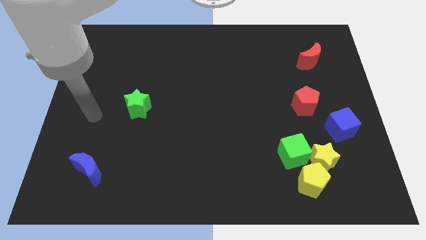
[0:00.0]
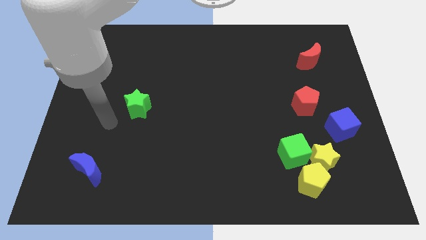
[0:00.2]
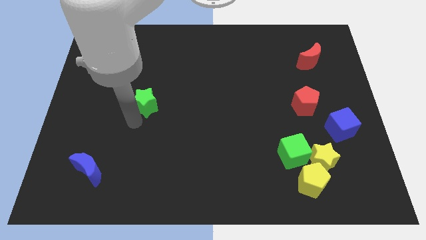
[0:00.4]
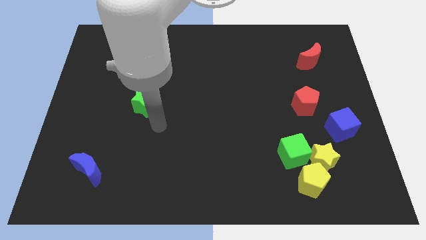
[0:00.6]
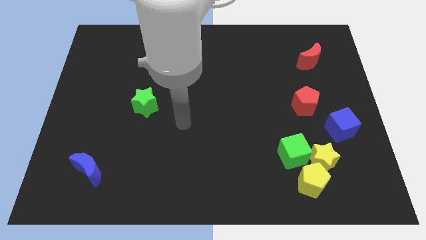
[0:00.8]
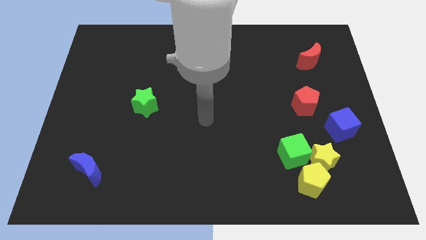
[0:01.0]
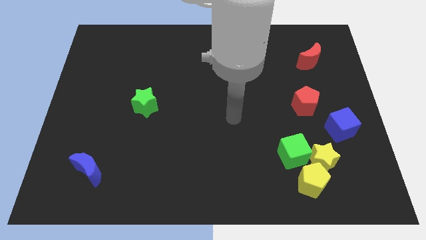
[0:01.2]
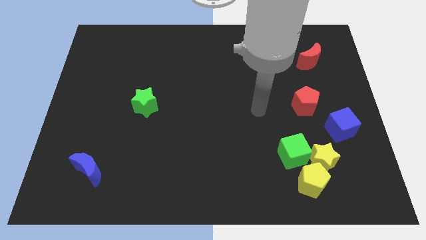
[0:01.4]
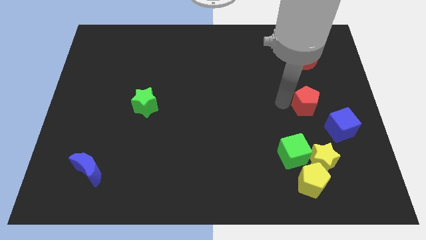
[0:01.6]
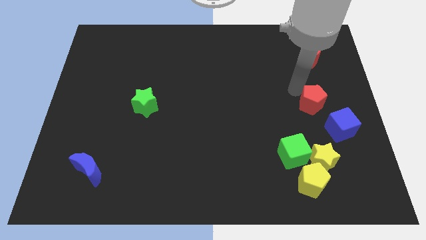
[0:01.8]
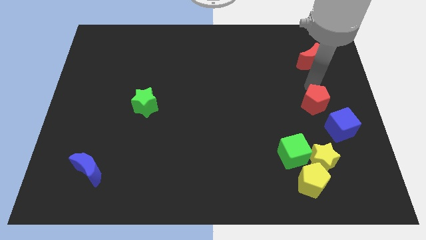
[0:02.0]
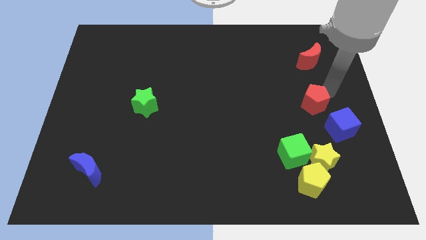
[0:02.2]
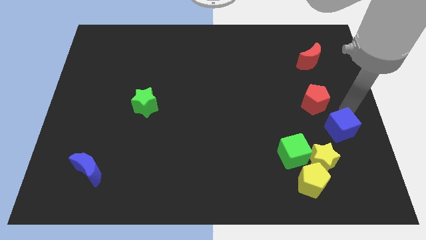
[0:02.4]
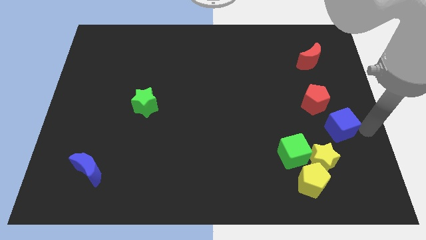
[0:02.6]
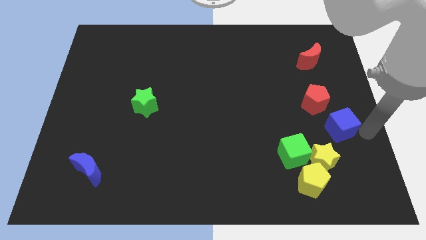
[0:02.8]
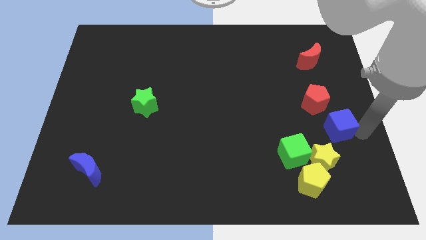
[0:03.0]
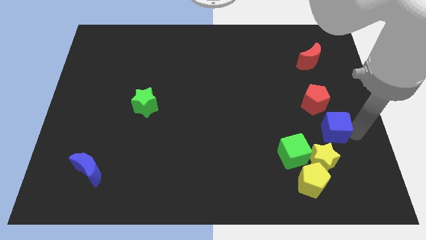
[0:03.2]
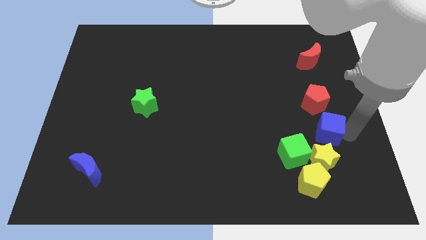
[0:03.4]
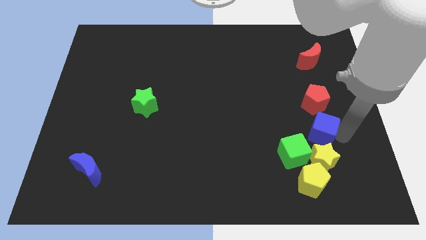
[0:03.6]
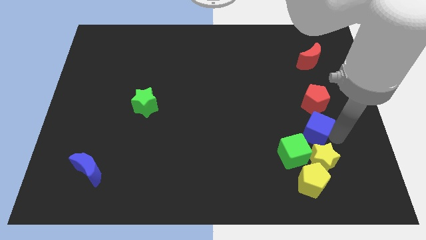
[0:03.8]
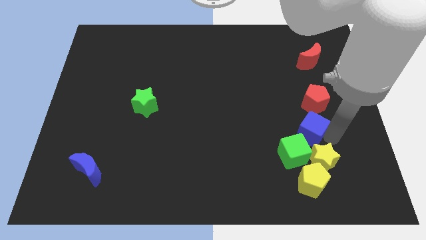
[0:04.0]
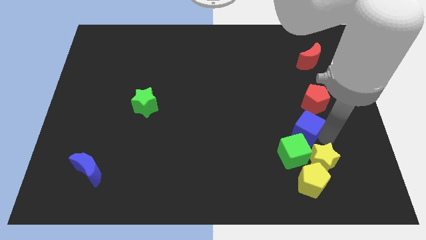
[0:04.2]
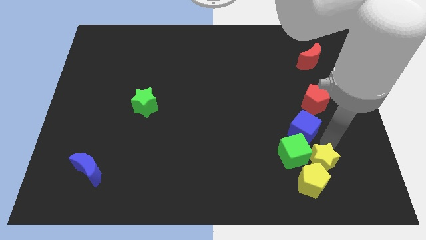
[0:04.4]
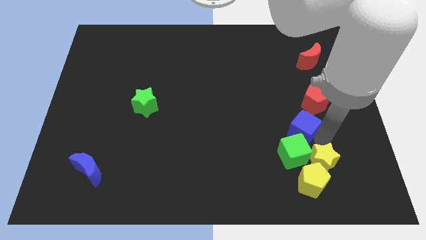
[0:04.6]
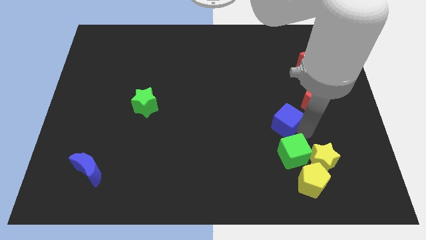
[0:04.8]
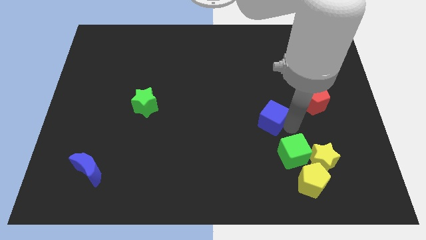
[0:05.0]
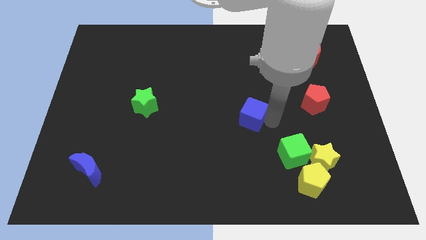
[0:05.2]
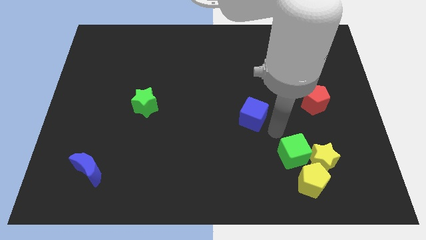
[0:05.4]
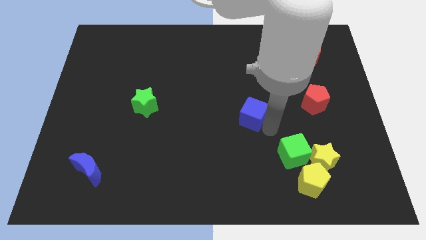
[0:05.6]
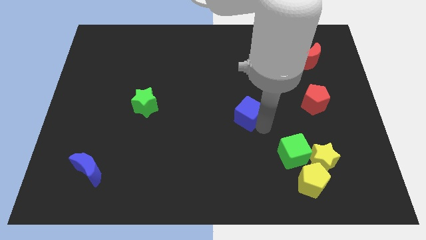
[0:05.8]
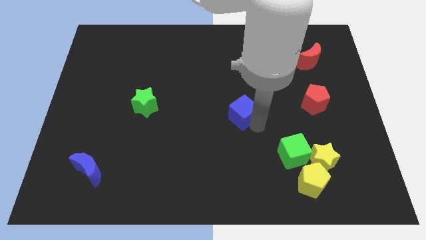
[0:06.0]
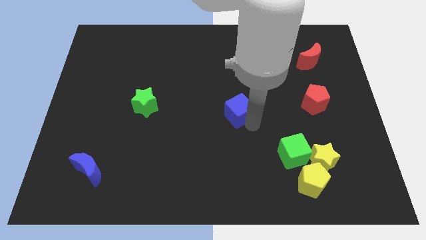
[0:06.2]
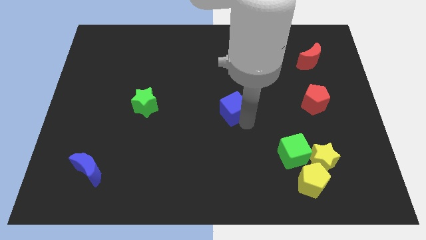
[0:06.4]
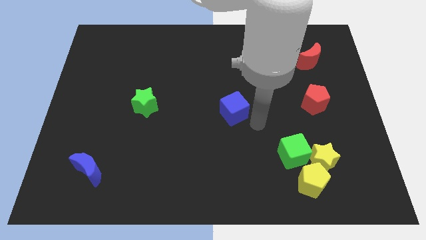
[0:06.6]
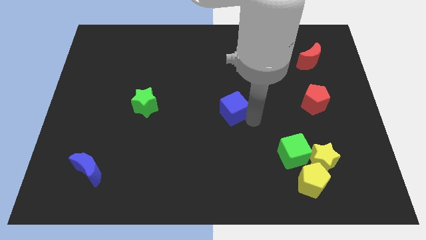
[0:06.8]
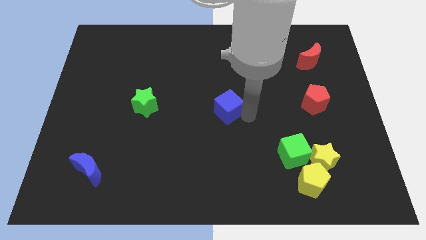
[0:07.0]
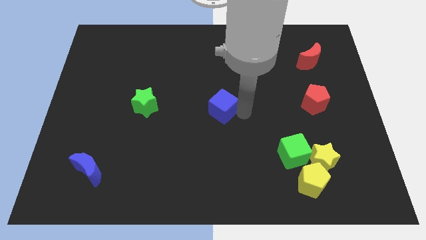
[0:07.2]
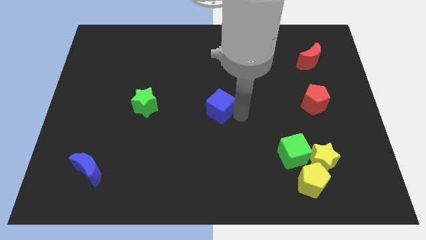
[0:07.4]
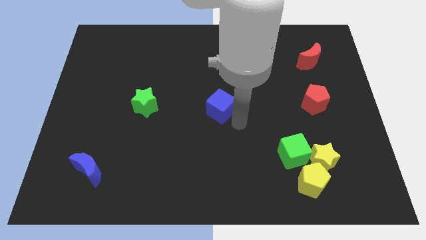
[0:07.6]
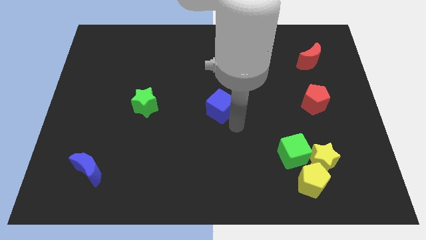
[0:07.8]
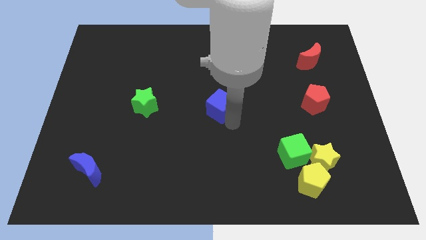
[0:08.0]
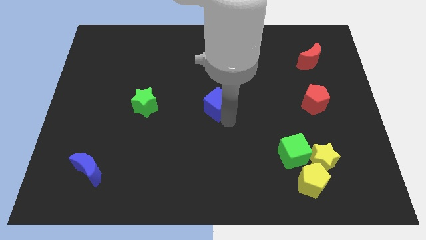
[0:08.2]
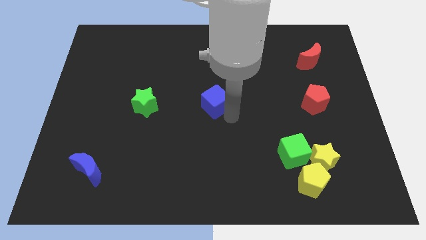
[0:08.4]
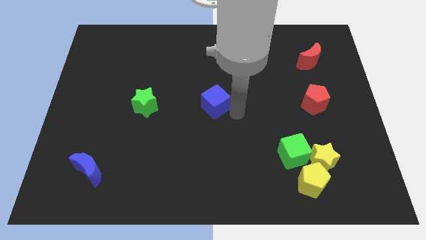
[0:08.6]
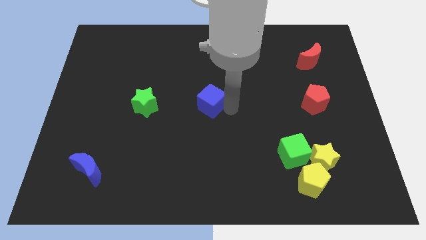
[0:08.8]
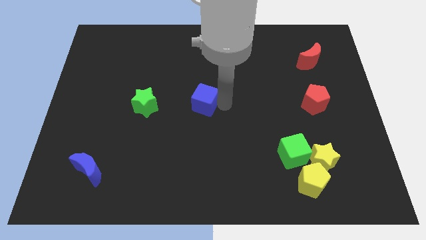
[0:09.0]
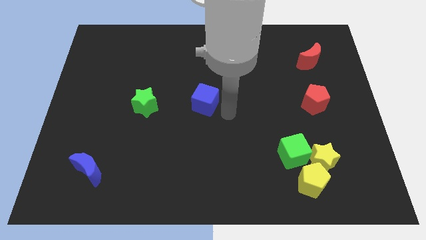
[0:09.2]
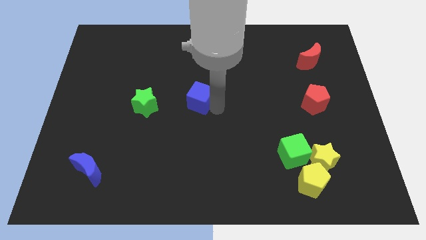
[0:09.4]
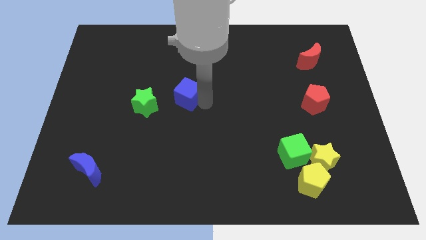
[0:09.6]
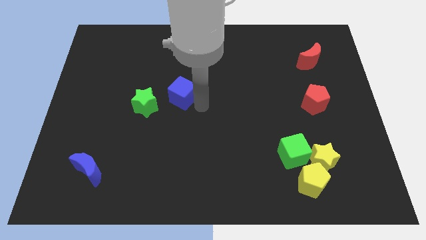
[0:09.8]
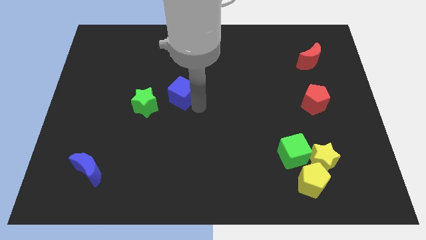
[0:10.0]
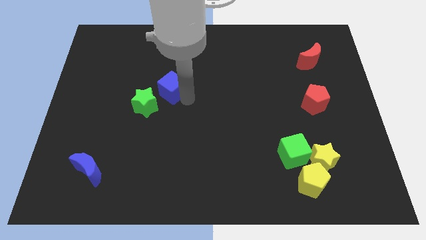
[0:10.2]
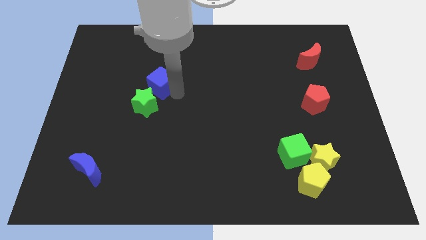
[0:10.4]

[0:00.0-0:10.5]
put the blue cube to the top of the green star

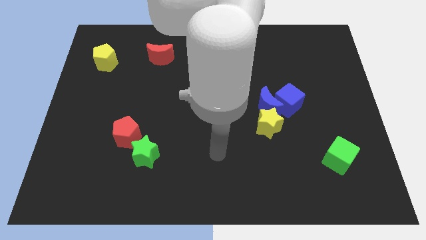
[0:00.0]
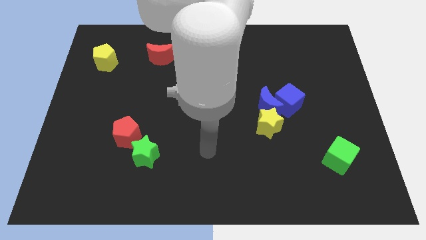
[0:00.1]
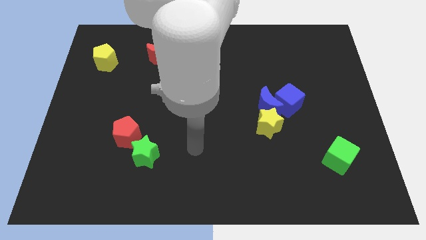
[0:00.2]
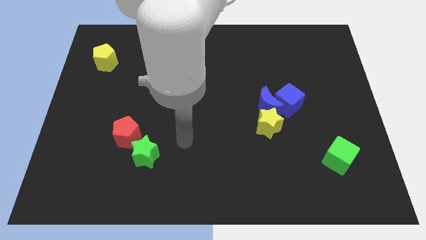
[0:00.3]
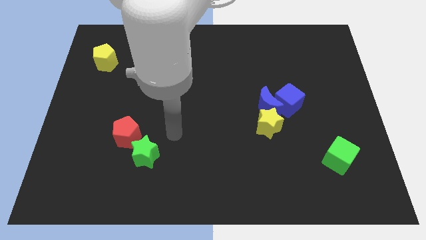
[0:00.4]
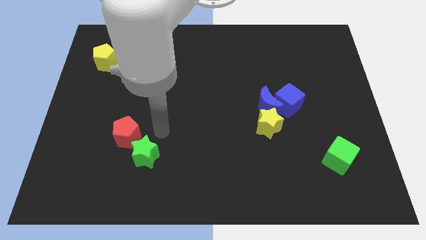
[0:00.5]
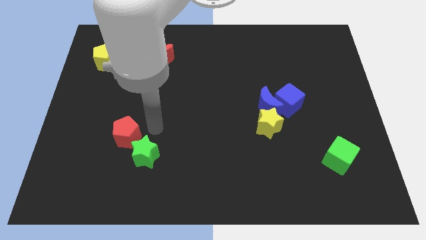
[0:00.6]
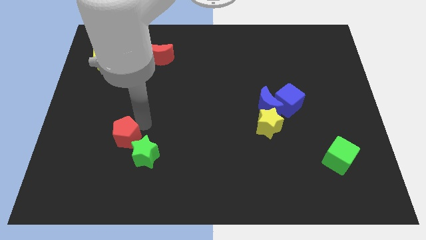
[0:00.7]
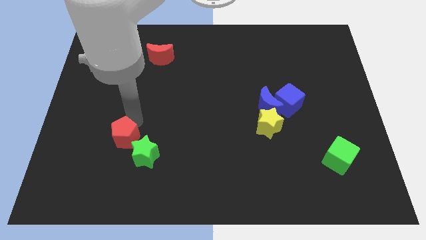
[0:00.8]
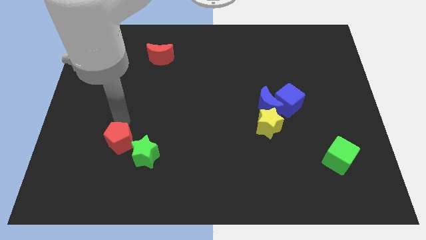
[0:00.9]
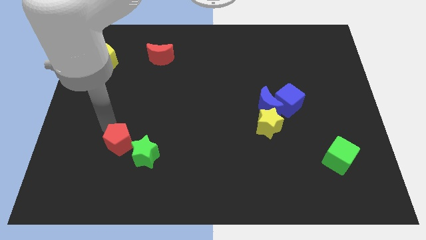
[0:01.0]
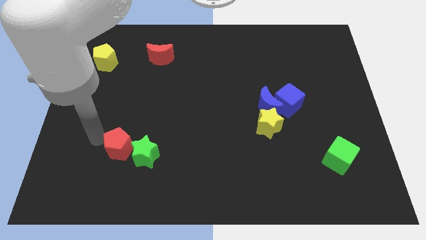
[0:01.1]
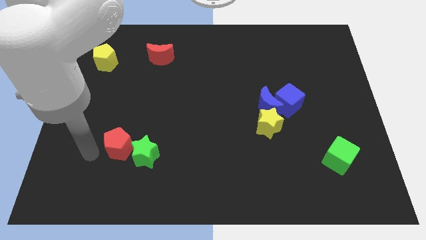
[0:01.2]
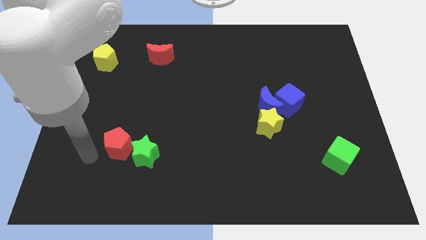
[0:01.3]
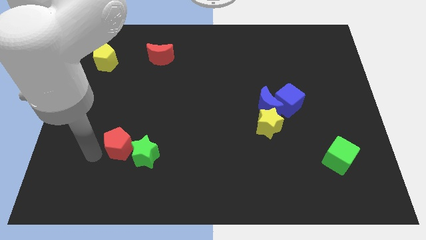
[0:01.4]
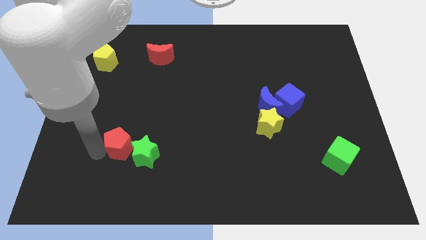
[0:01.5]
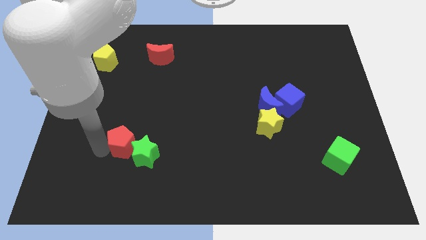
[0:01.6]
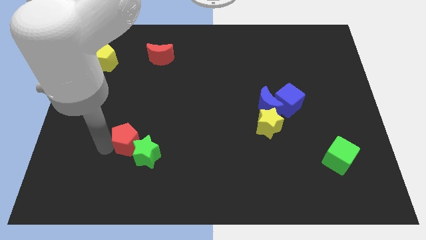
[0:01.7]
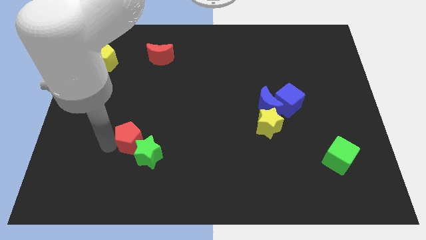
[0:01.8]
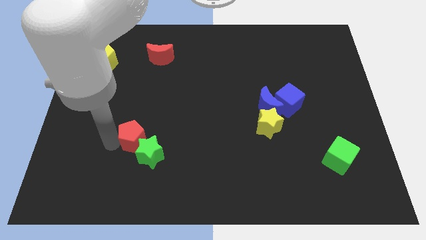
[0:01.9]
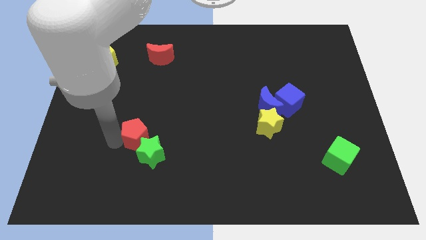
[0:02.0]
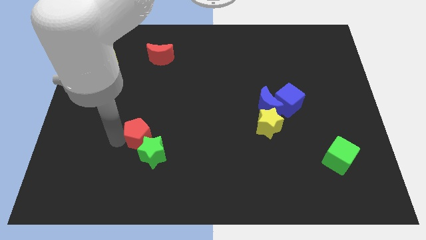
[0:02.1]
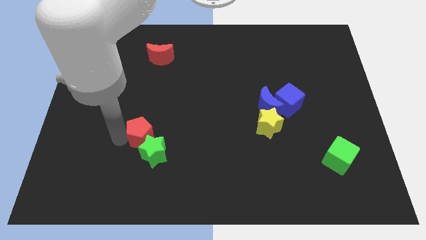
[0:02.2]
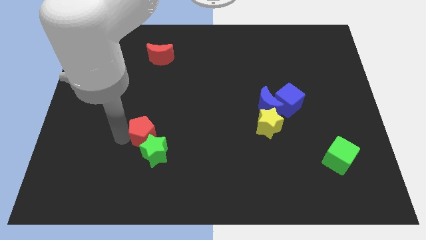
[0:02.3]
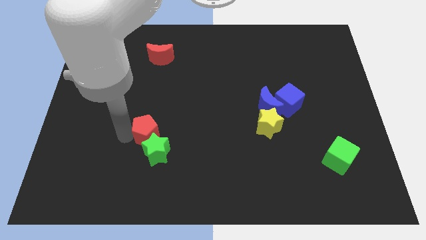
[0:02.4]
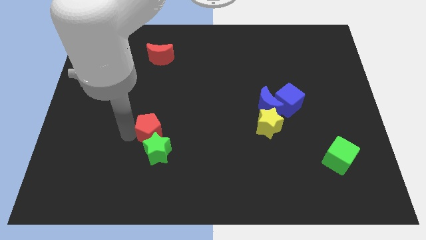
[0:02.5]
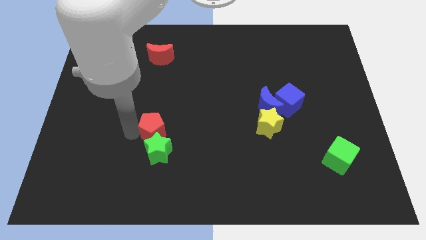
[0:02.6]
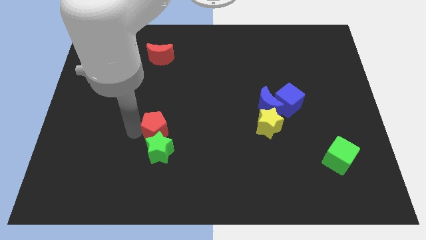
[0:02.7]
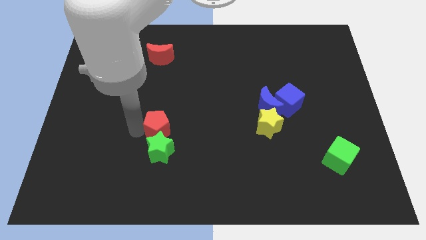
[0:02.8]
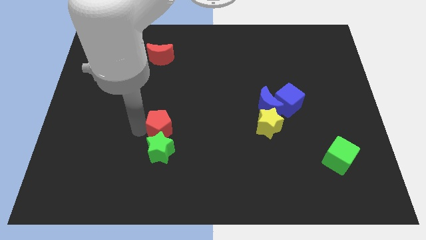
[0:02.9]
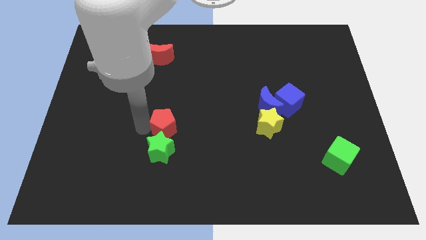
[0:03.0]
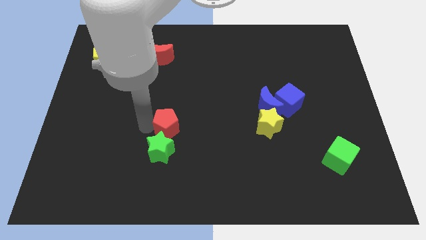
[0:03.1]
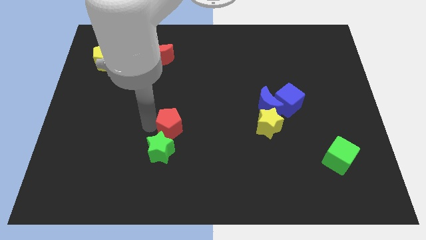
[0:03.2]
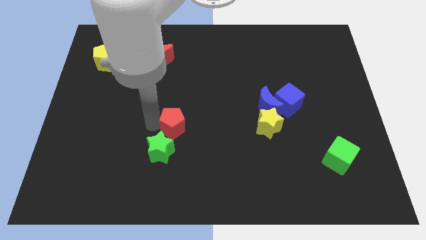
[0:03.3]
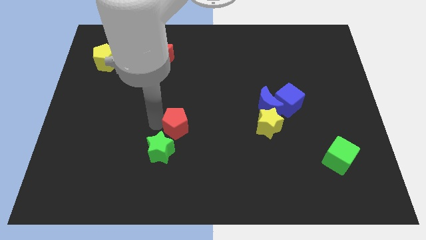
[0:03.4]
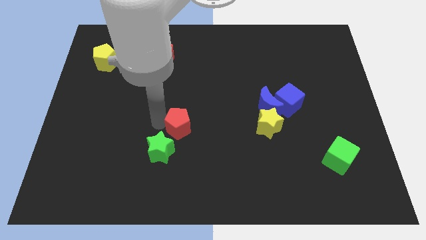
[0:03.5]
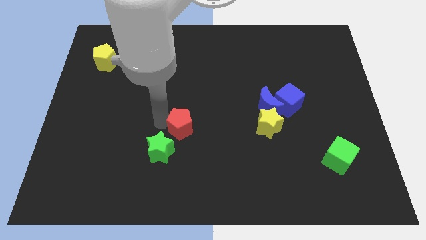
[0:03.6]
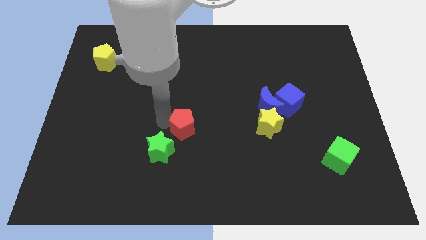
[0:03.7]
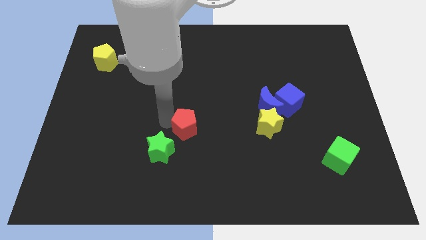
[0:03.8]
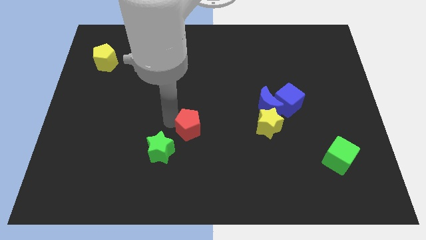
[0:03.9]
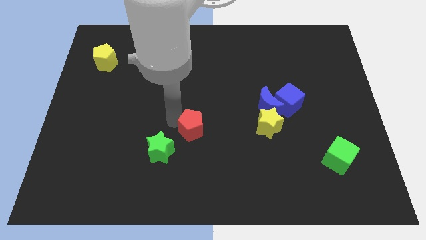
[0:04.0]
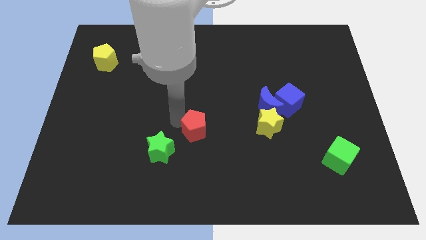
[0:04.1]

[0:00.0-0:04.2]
push the red pentagon left of the yellow star
